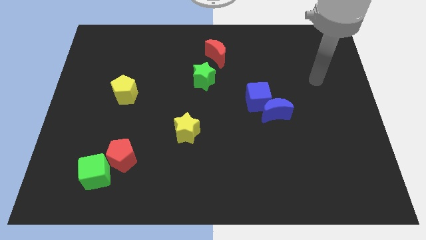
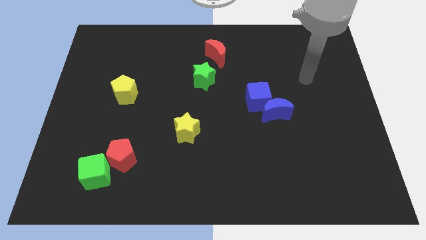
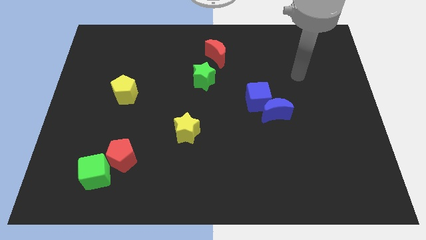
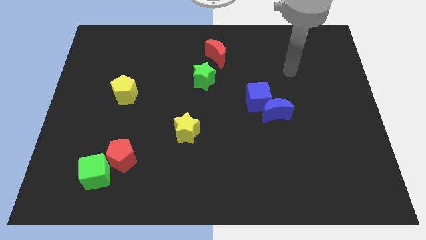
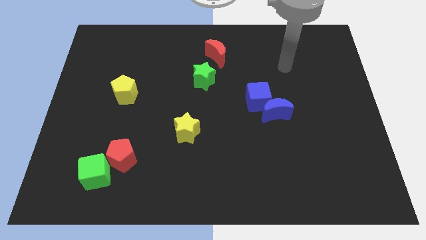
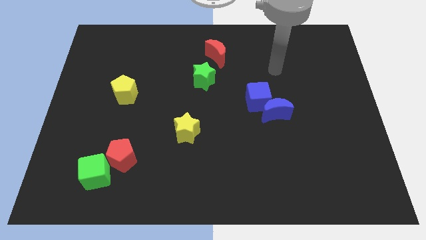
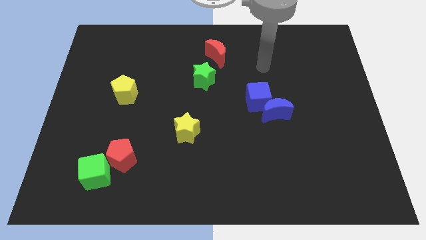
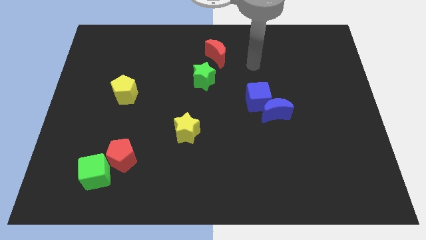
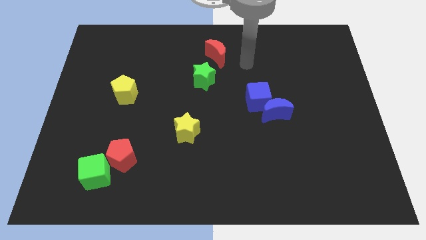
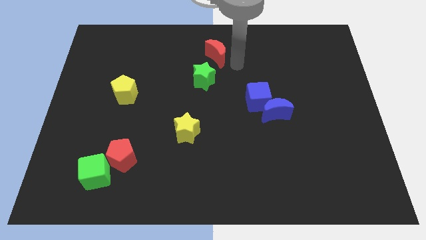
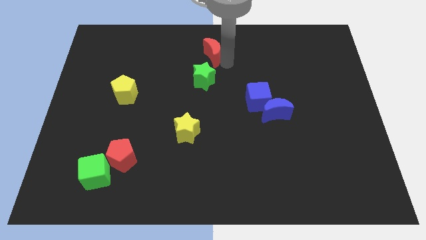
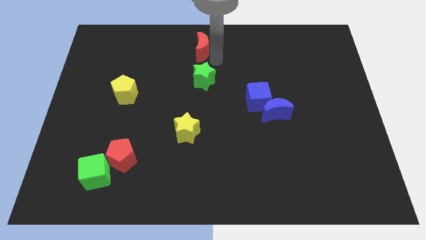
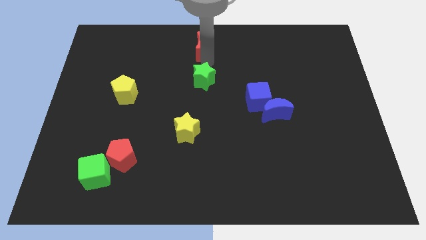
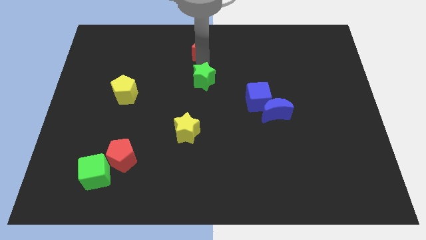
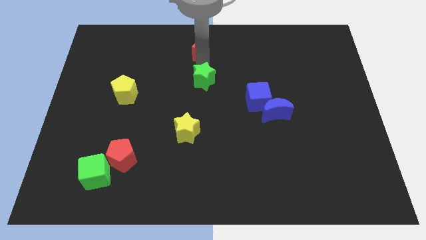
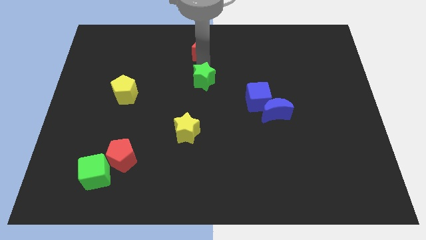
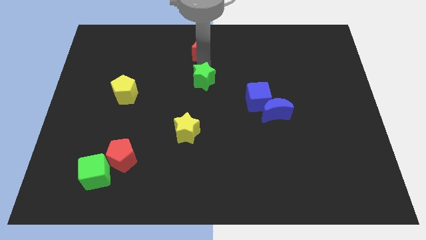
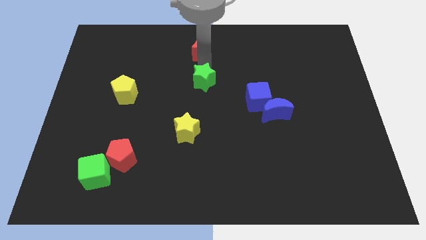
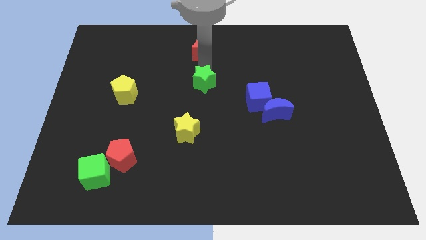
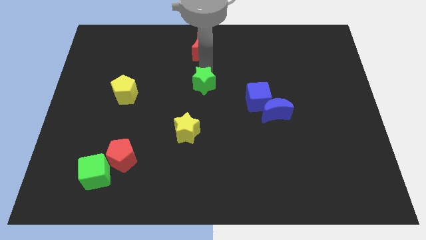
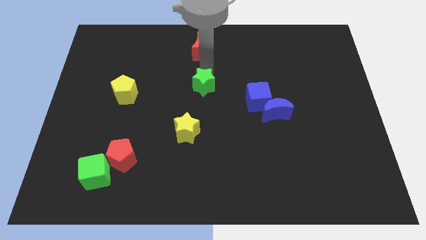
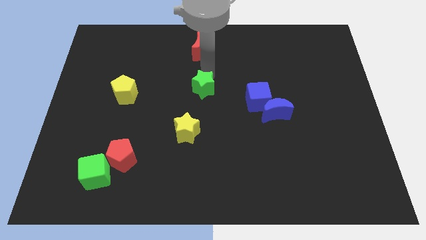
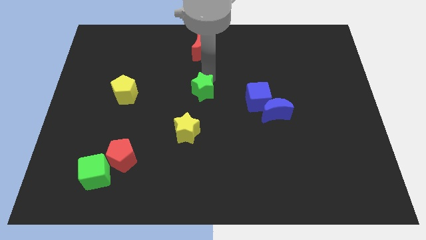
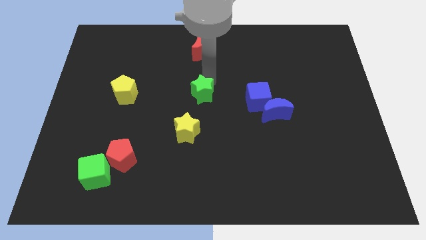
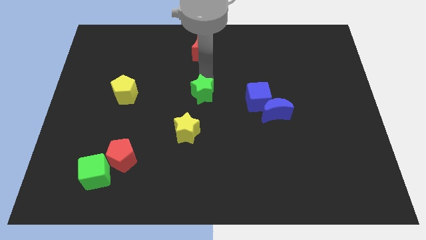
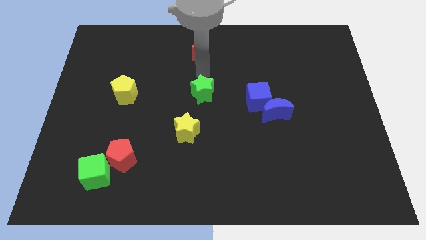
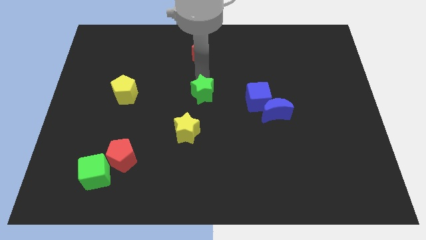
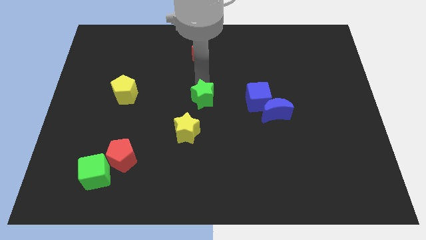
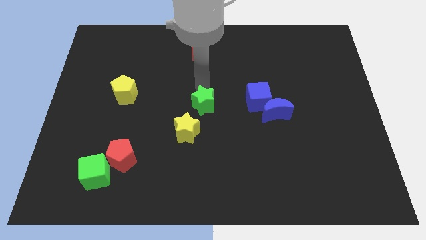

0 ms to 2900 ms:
slightly slide the green star down

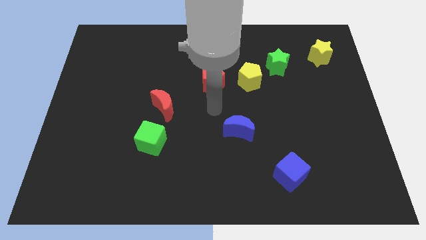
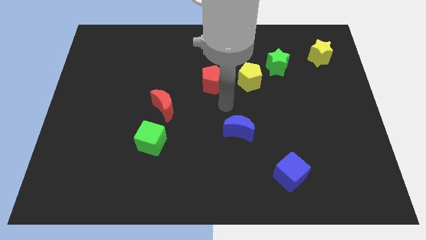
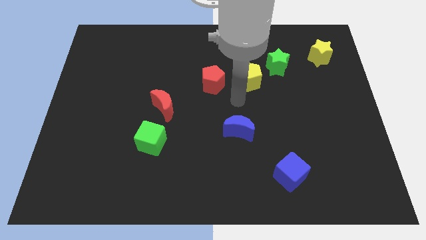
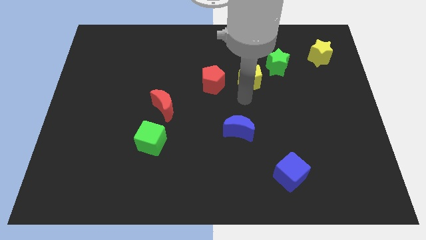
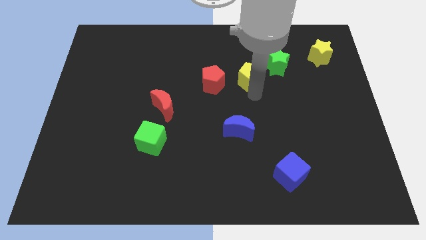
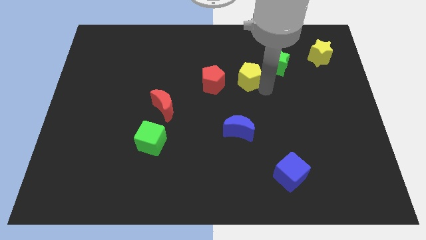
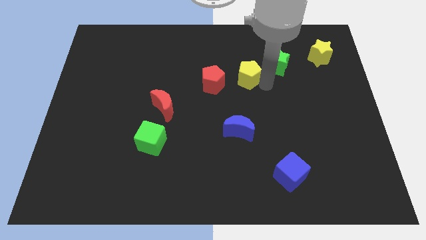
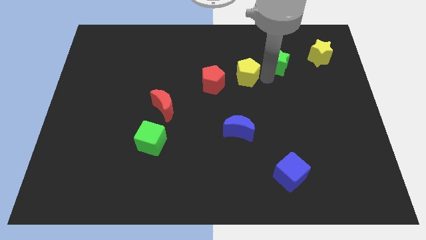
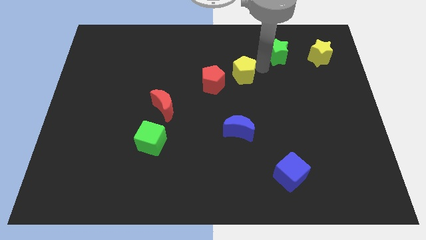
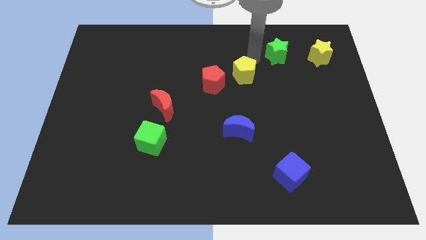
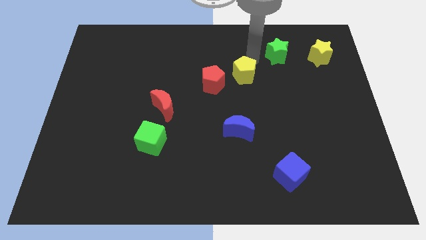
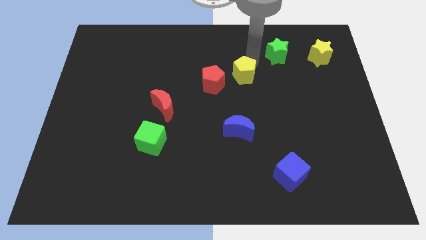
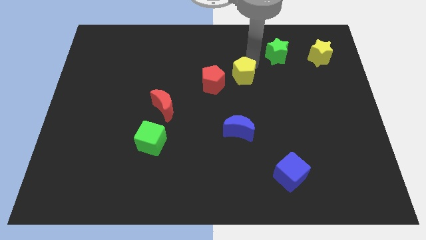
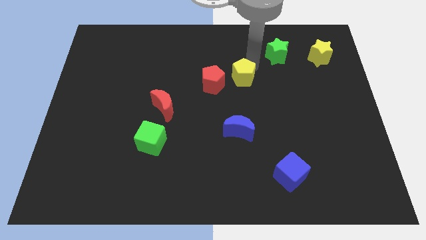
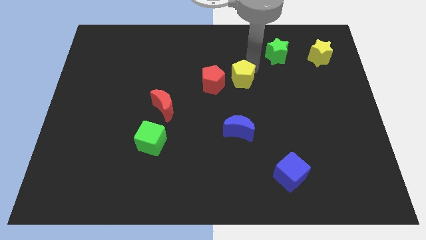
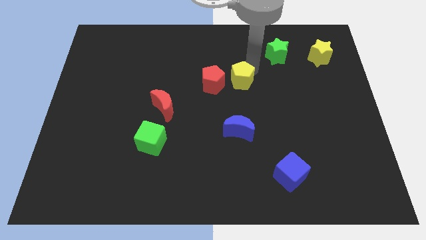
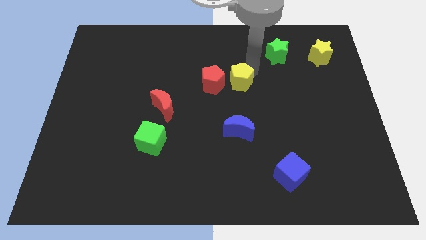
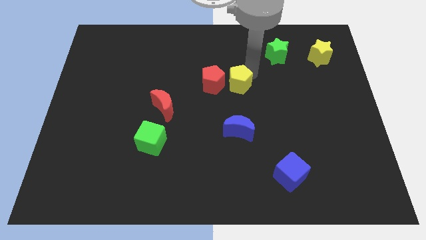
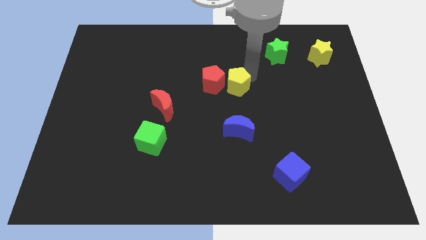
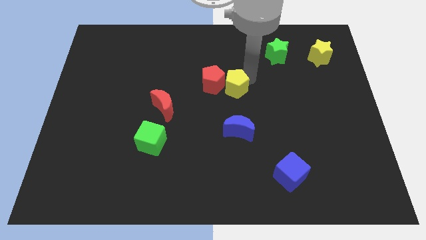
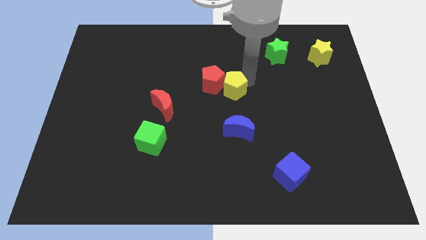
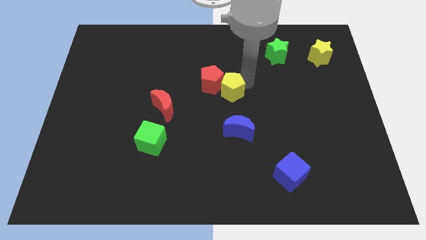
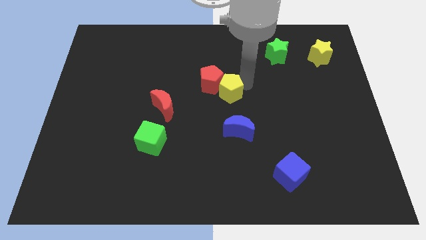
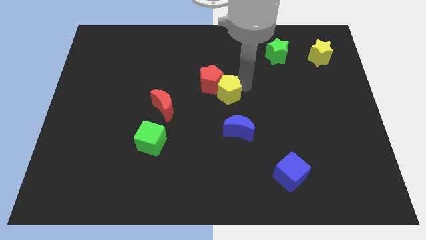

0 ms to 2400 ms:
slightly slide the yellow pentagon downwards and then left

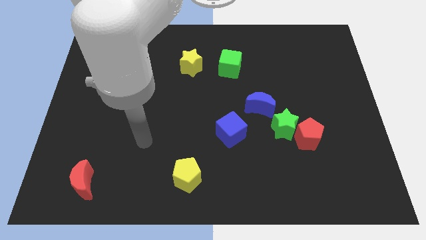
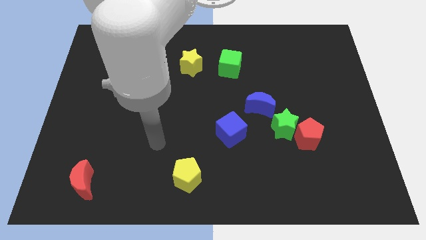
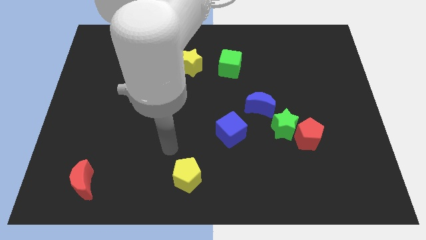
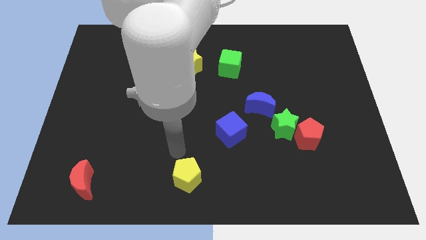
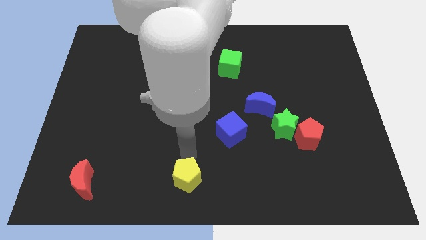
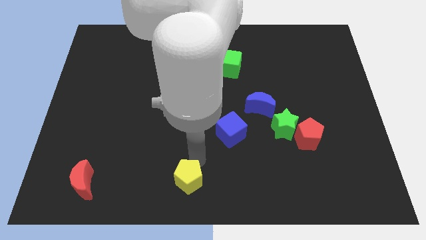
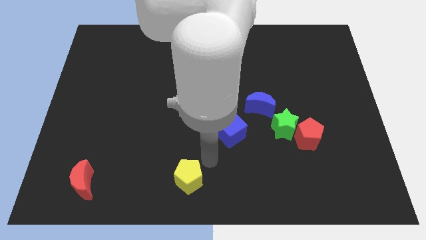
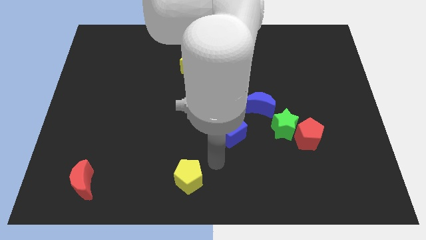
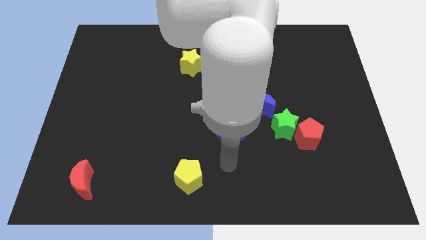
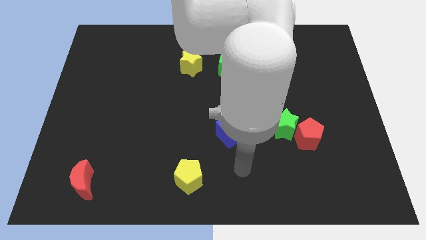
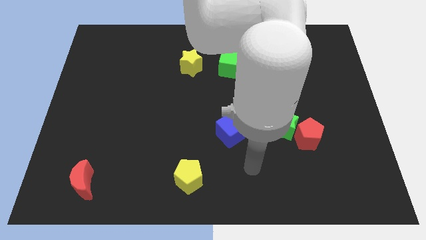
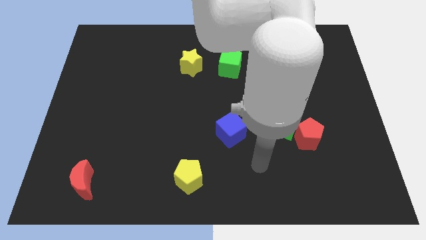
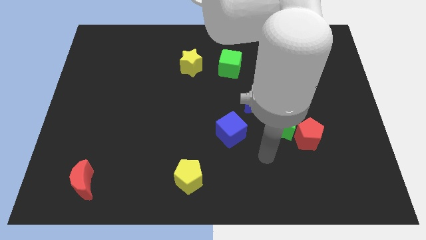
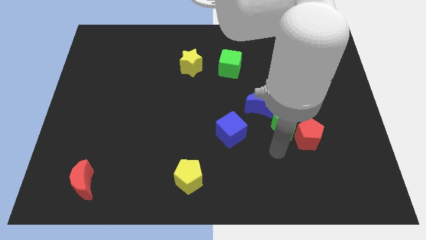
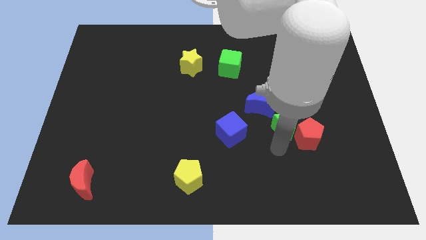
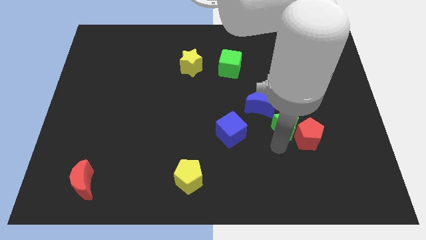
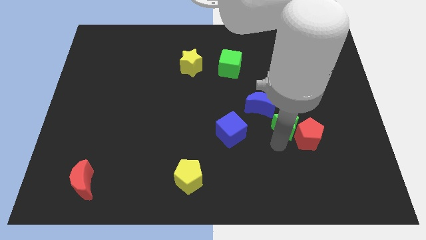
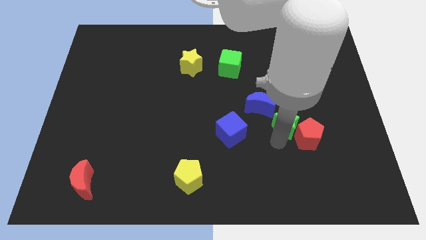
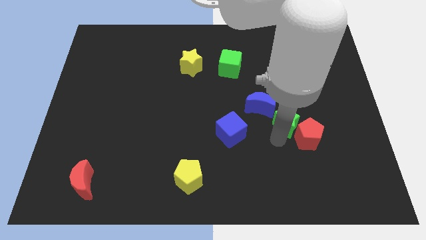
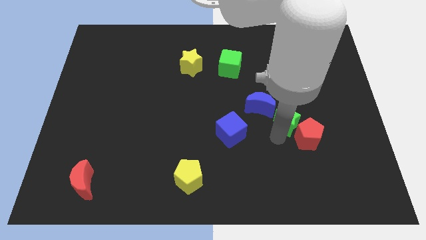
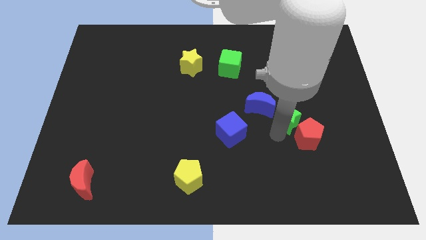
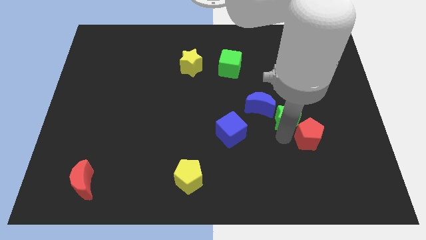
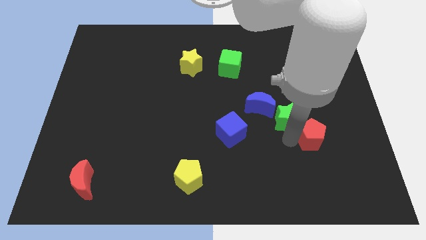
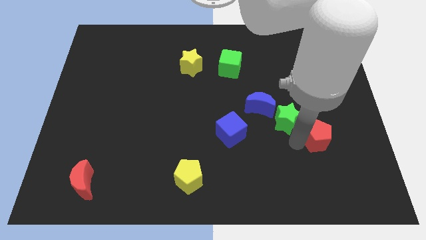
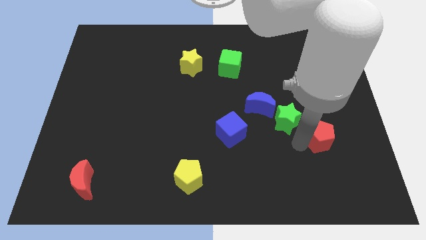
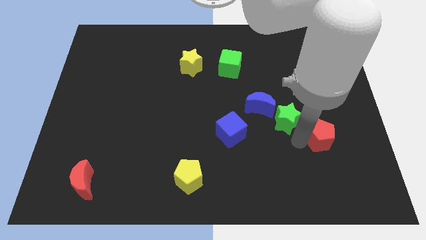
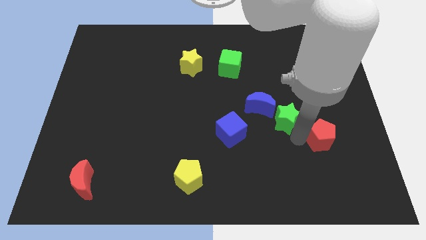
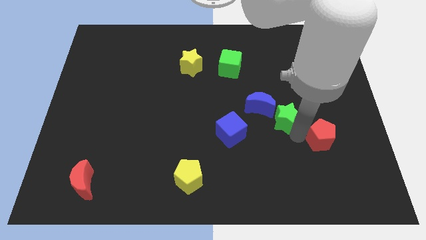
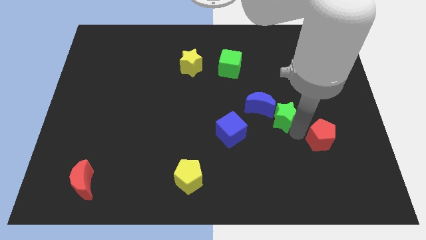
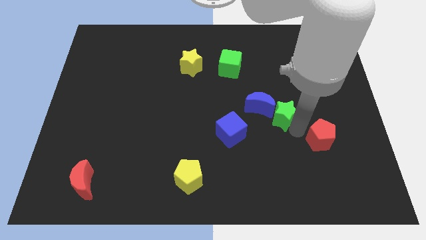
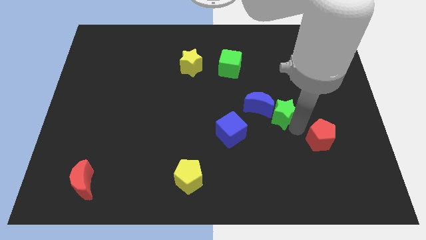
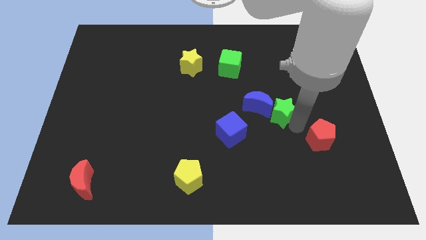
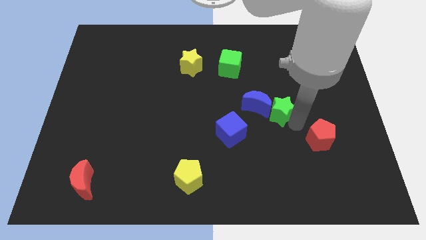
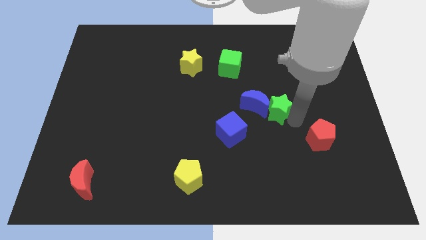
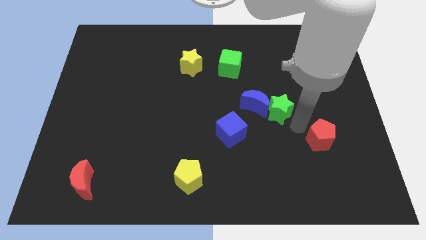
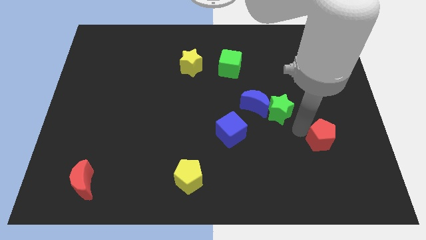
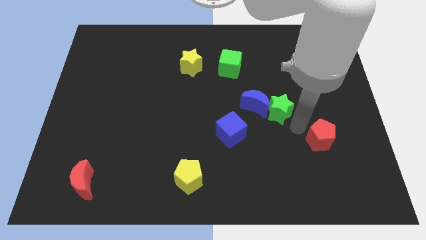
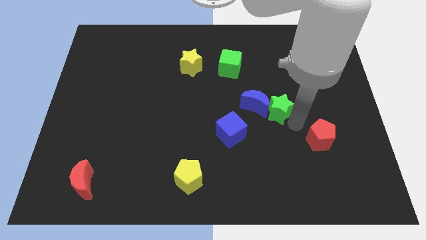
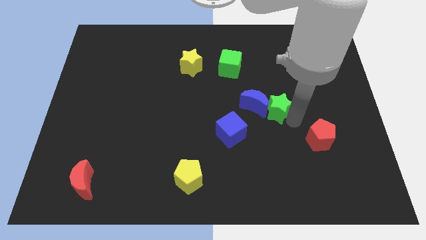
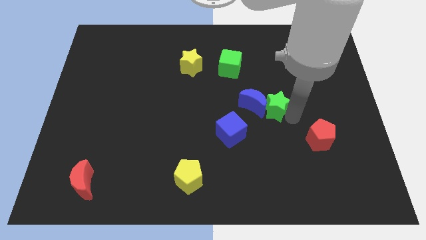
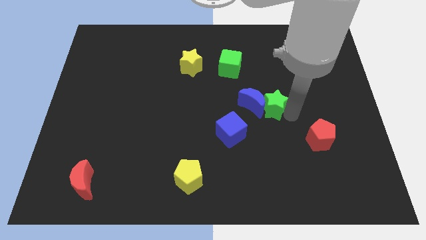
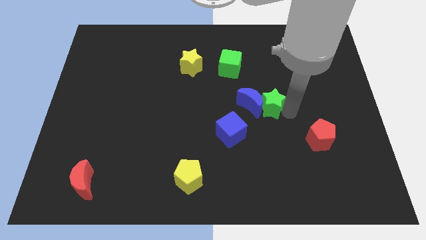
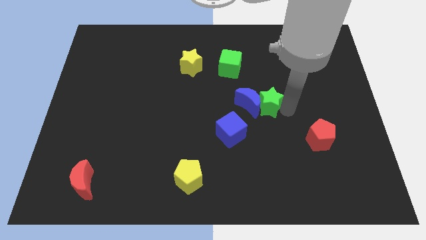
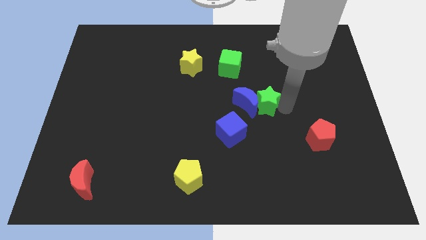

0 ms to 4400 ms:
slide the green star up and left diagonally slightly
